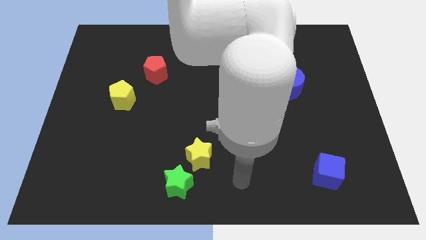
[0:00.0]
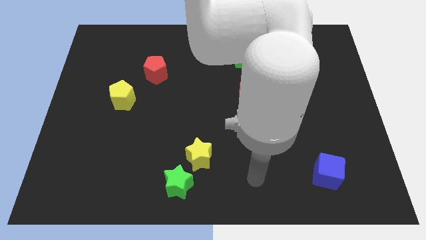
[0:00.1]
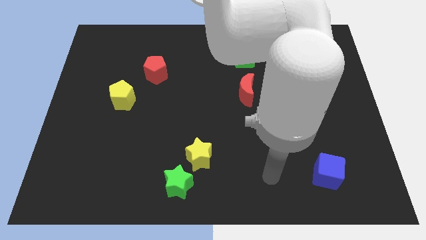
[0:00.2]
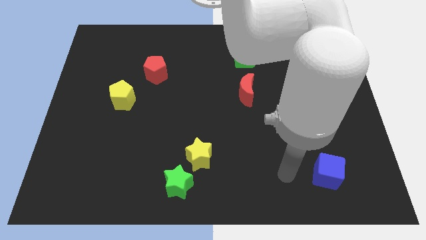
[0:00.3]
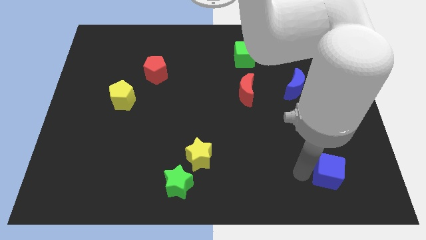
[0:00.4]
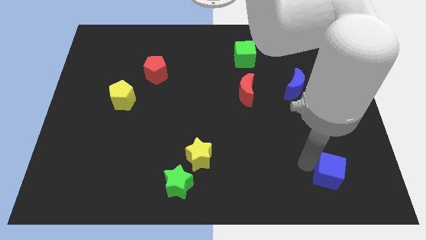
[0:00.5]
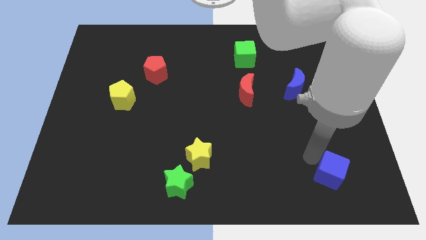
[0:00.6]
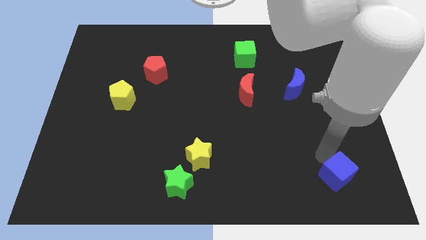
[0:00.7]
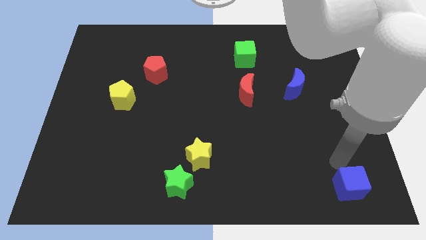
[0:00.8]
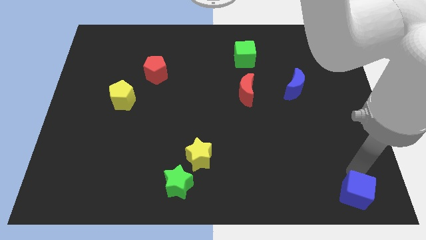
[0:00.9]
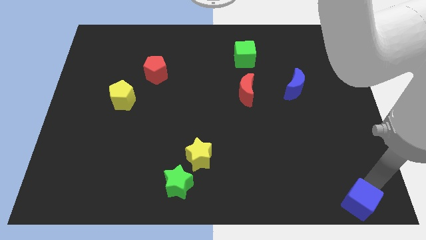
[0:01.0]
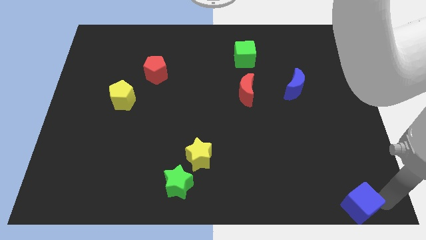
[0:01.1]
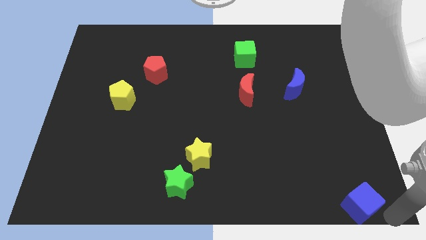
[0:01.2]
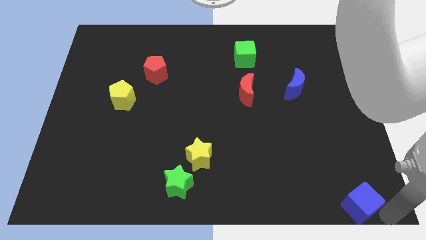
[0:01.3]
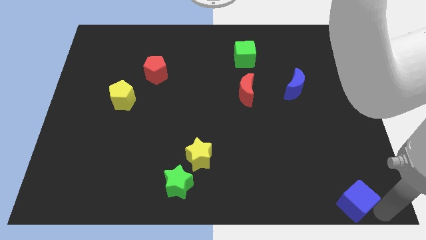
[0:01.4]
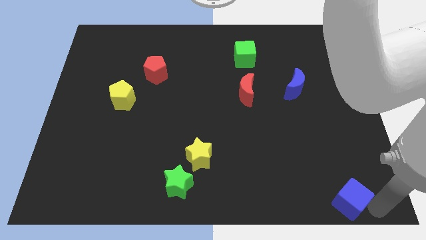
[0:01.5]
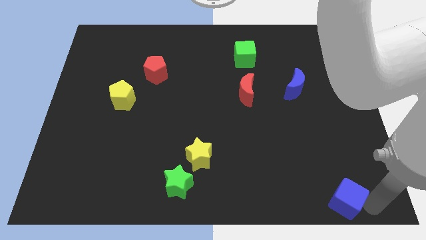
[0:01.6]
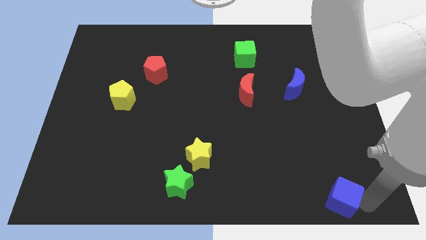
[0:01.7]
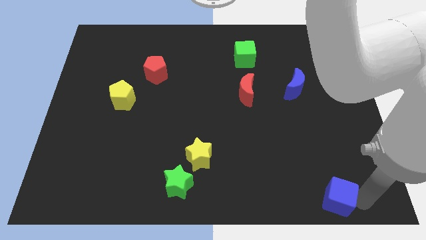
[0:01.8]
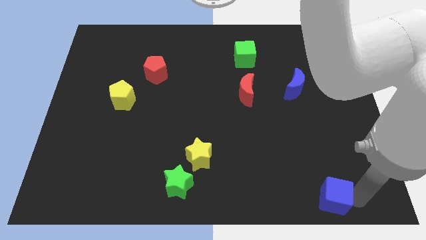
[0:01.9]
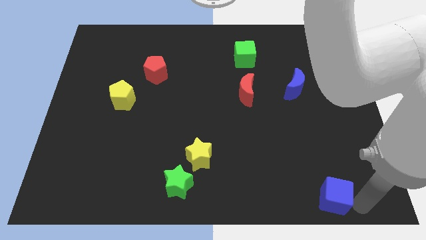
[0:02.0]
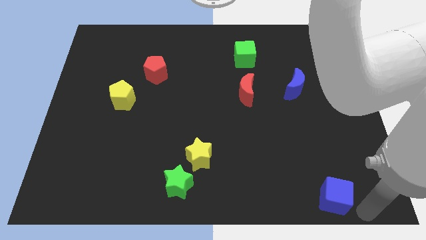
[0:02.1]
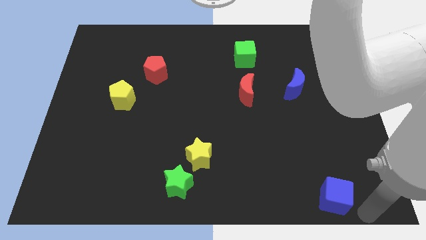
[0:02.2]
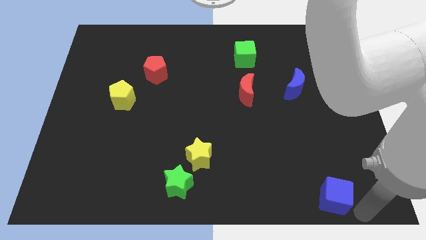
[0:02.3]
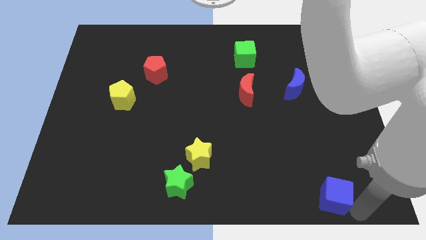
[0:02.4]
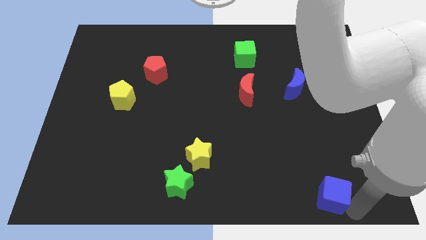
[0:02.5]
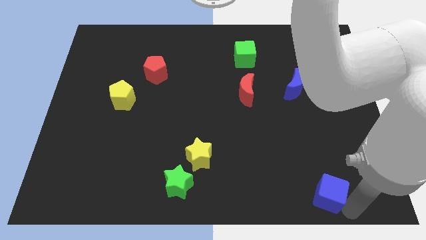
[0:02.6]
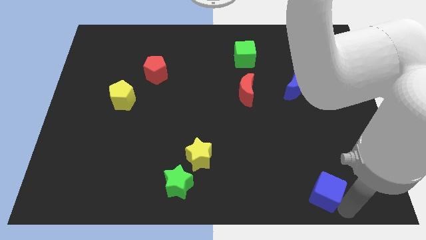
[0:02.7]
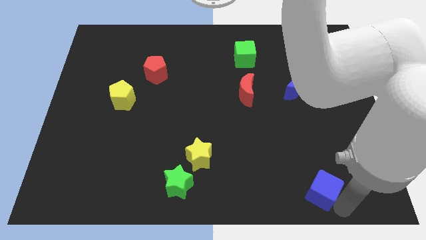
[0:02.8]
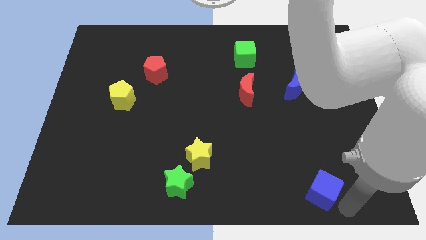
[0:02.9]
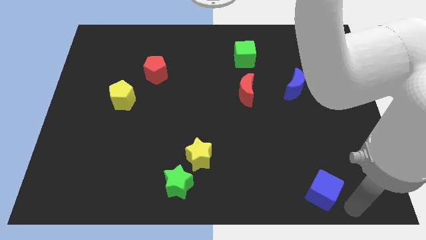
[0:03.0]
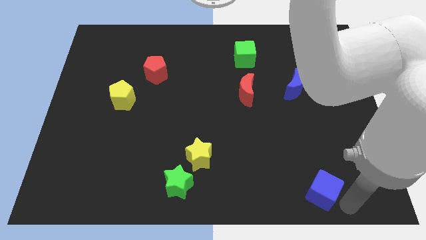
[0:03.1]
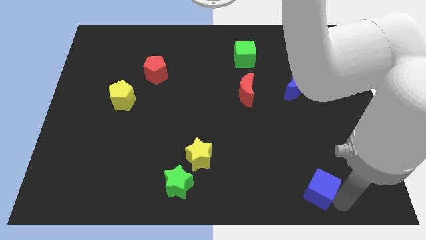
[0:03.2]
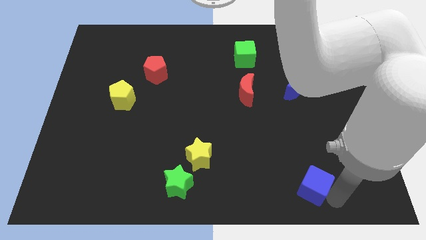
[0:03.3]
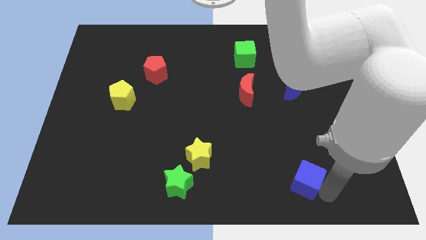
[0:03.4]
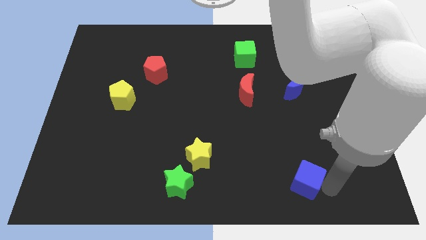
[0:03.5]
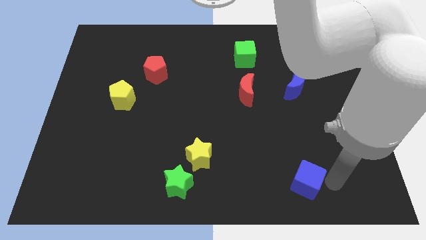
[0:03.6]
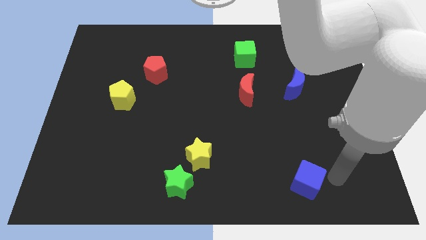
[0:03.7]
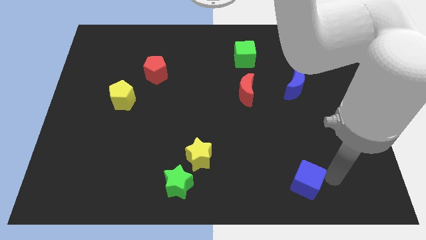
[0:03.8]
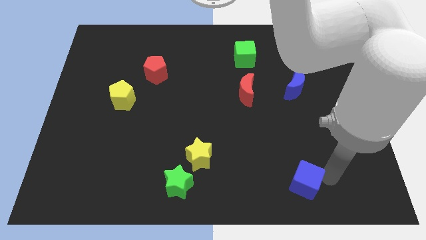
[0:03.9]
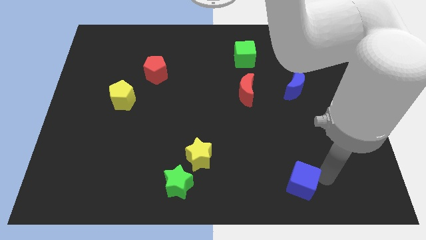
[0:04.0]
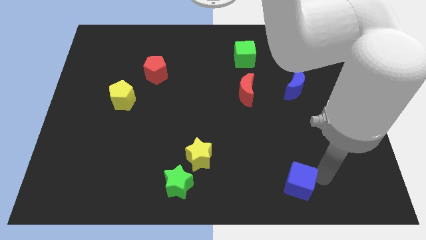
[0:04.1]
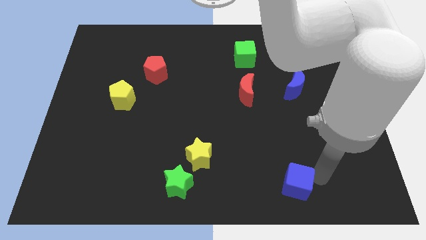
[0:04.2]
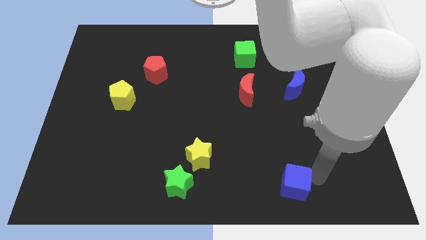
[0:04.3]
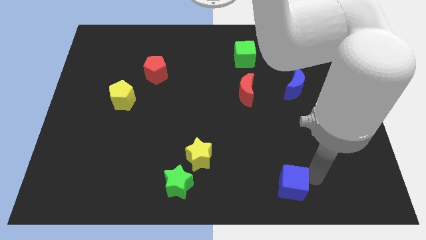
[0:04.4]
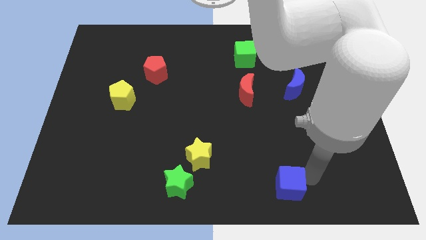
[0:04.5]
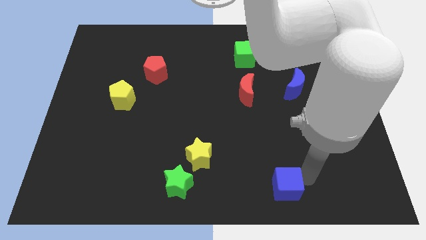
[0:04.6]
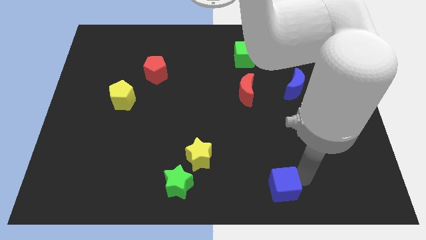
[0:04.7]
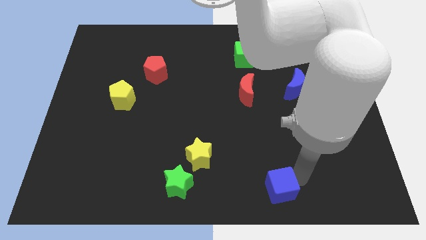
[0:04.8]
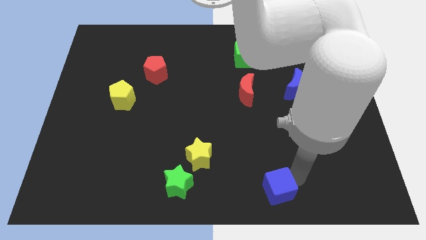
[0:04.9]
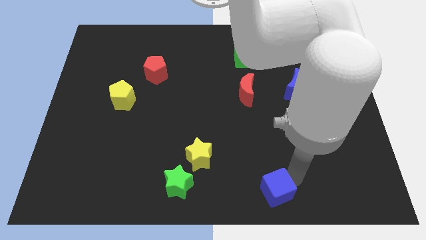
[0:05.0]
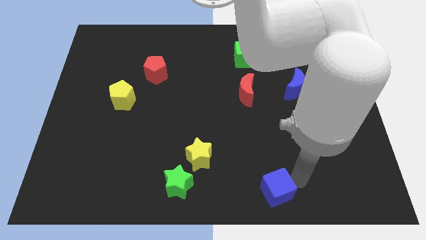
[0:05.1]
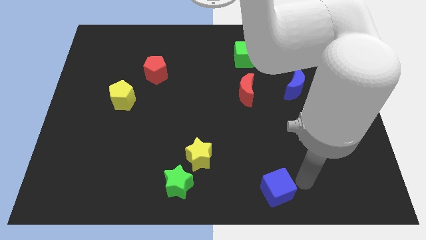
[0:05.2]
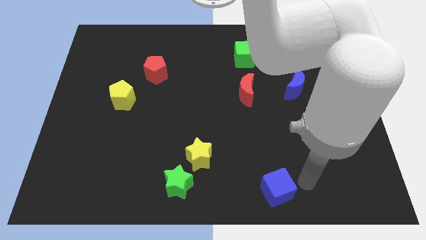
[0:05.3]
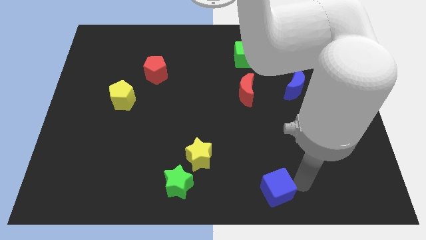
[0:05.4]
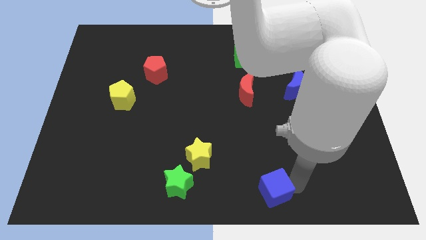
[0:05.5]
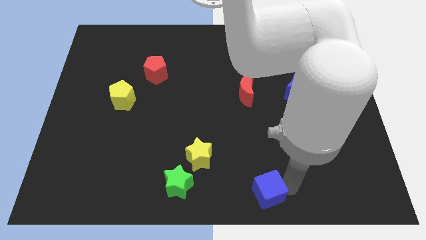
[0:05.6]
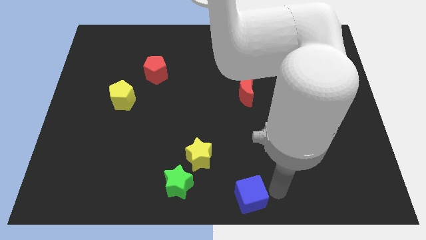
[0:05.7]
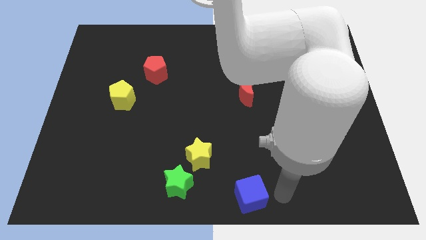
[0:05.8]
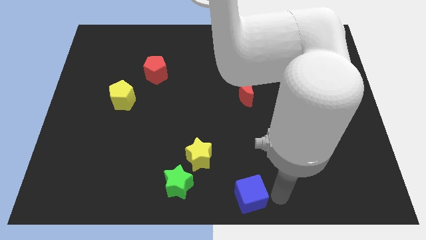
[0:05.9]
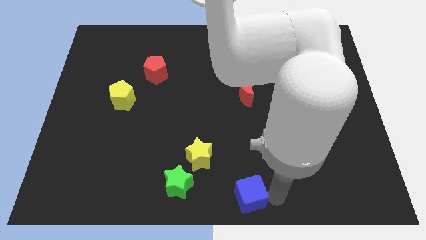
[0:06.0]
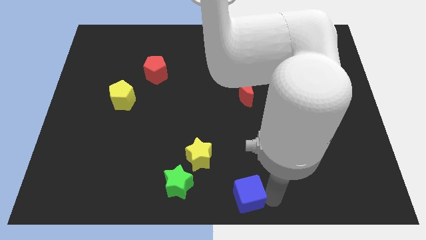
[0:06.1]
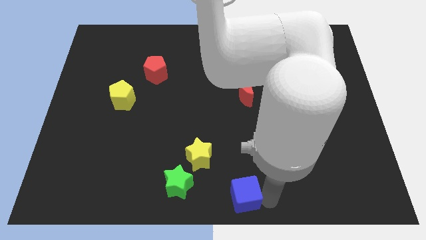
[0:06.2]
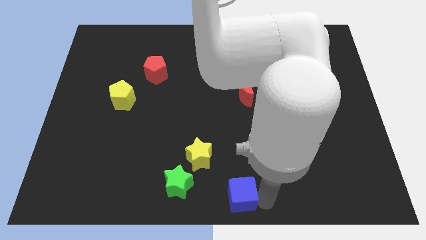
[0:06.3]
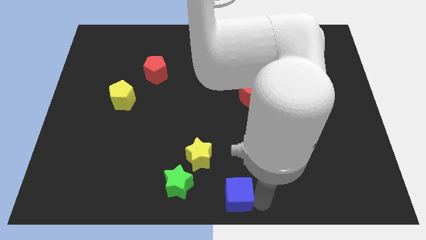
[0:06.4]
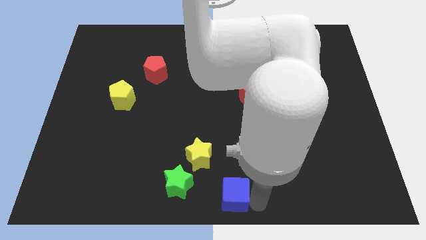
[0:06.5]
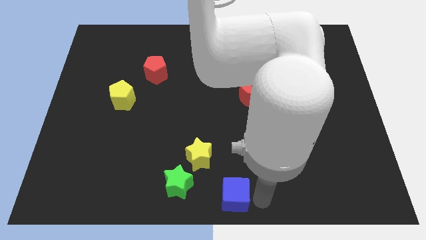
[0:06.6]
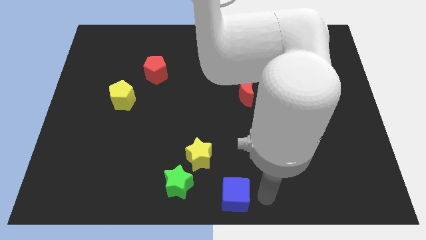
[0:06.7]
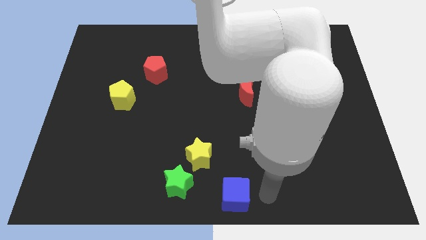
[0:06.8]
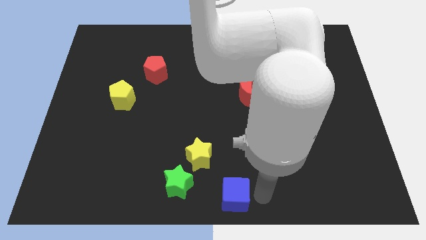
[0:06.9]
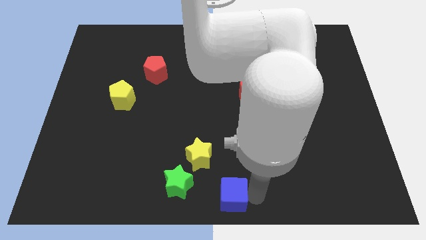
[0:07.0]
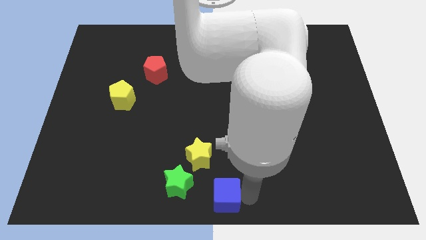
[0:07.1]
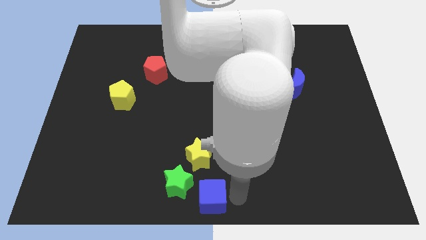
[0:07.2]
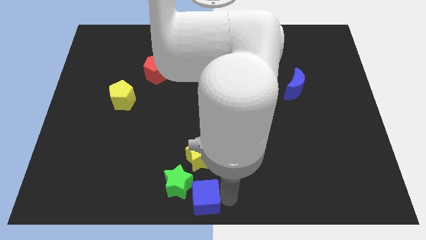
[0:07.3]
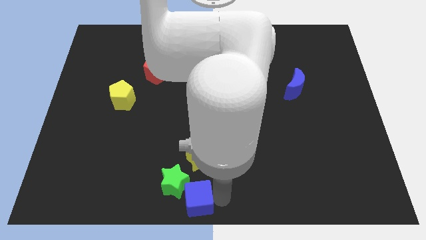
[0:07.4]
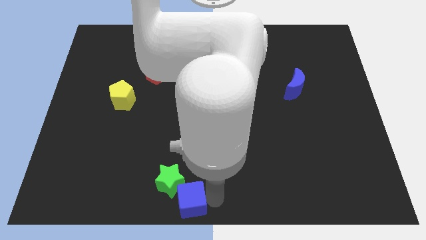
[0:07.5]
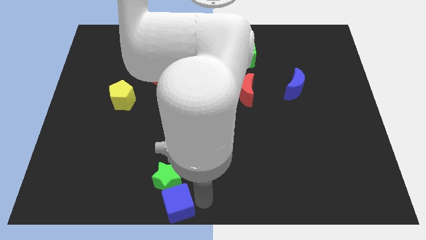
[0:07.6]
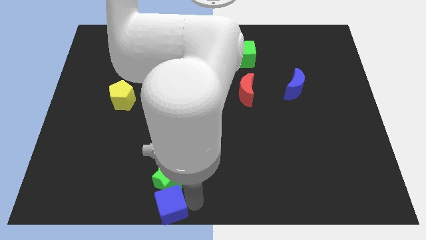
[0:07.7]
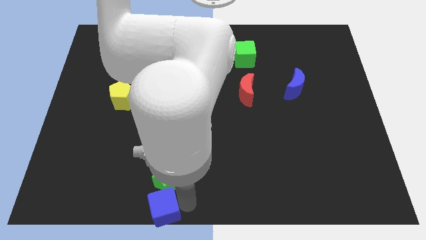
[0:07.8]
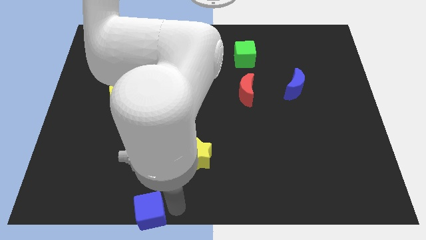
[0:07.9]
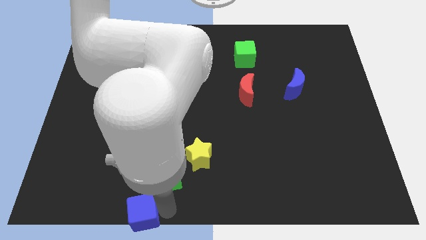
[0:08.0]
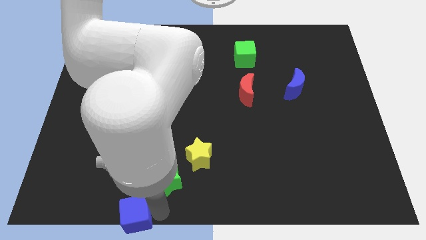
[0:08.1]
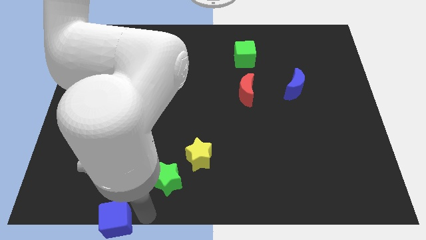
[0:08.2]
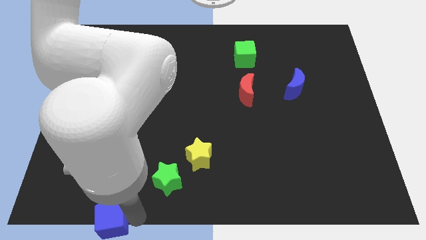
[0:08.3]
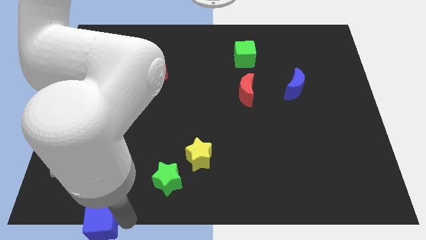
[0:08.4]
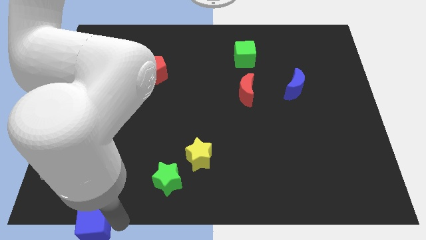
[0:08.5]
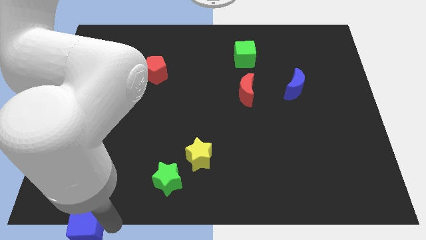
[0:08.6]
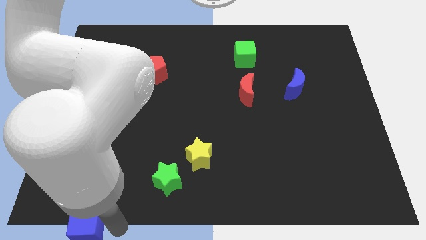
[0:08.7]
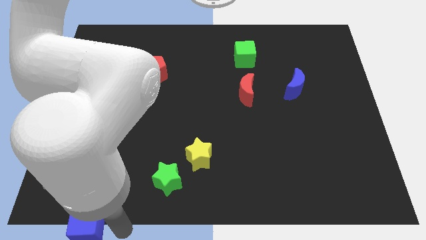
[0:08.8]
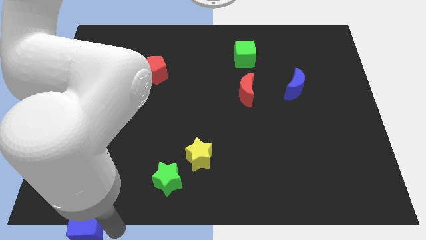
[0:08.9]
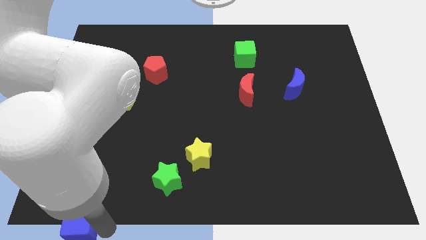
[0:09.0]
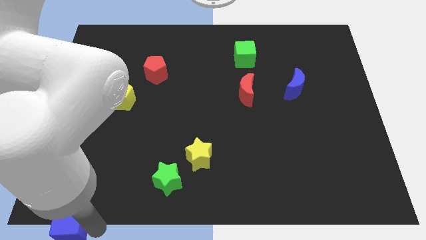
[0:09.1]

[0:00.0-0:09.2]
slide the blue cube to the lower left corner
